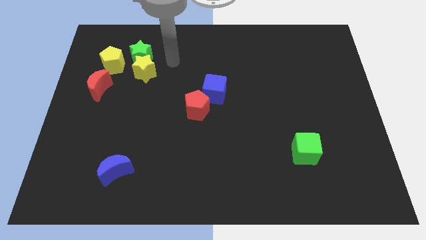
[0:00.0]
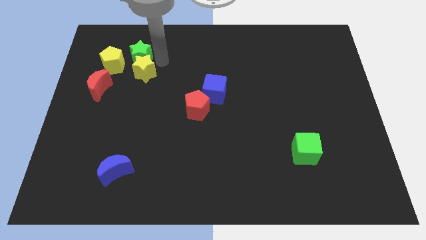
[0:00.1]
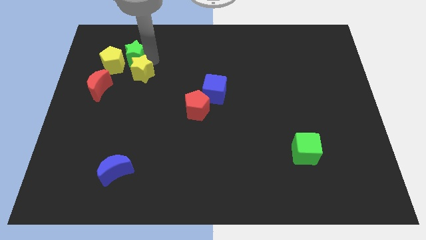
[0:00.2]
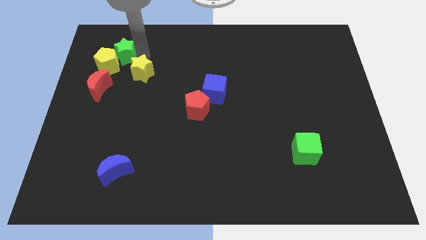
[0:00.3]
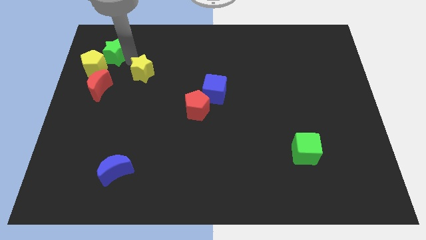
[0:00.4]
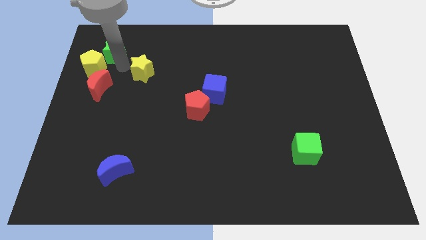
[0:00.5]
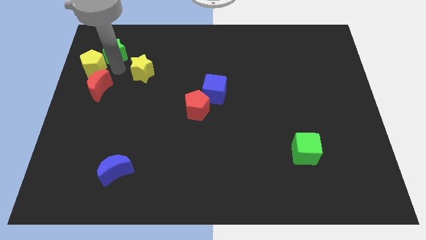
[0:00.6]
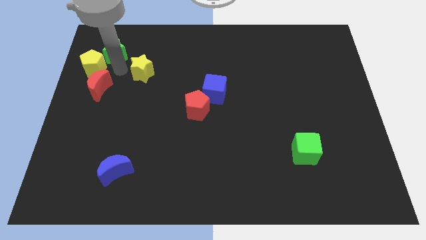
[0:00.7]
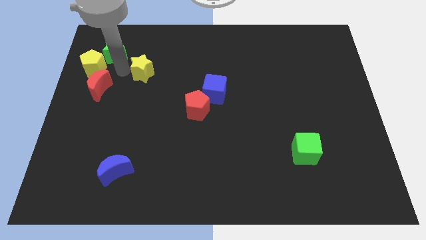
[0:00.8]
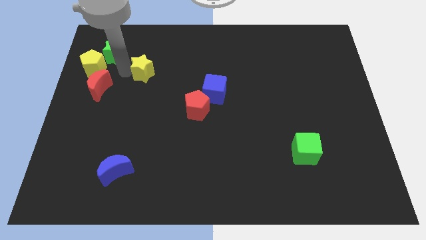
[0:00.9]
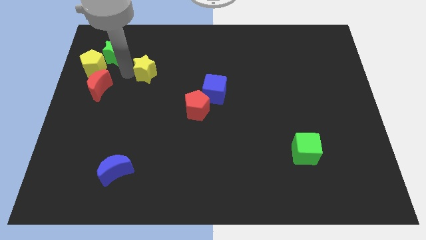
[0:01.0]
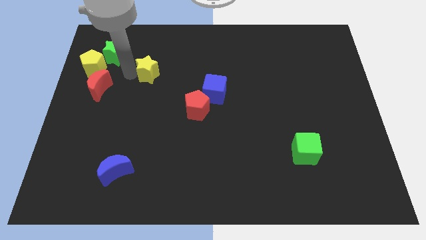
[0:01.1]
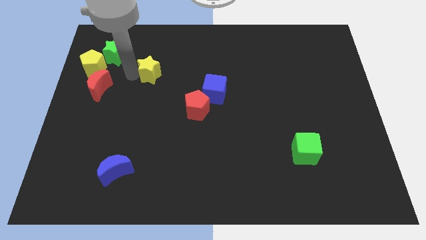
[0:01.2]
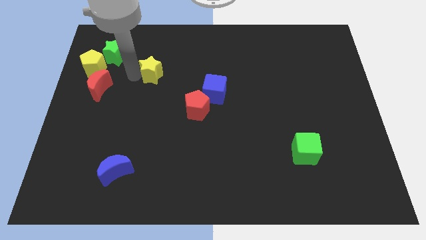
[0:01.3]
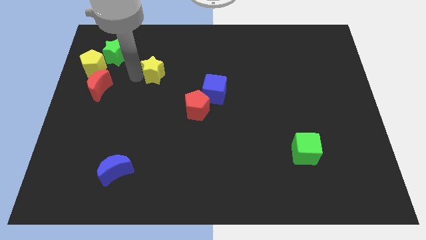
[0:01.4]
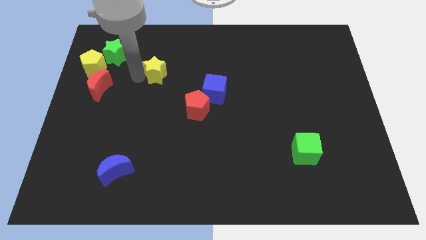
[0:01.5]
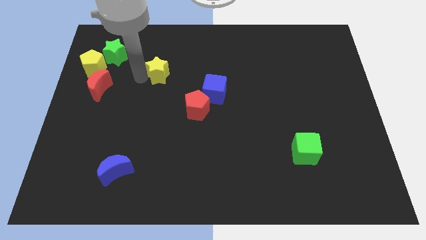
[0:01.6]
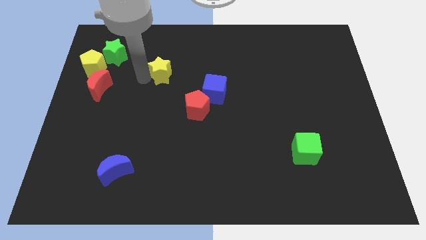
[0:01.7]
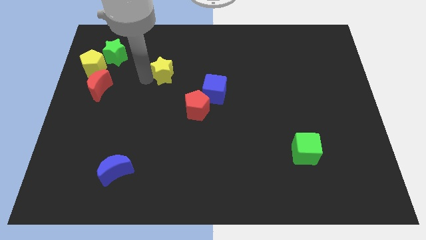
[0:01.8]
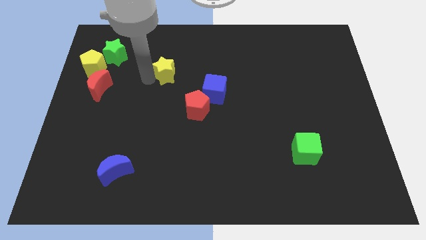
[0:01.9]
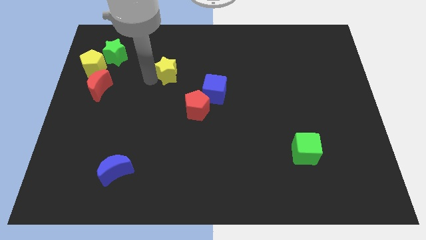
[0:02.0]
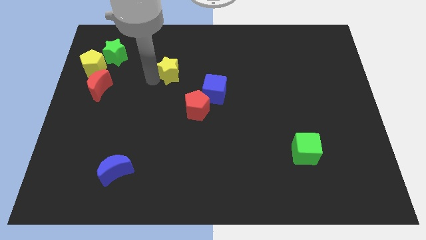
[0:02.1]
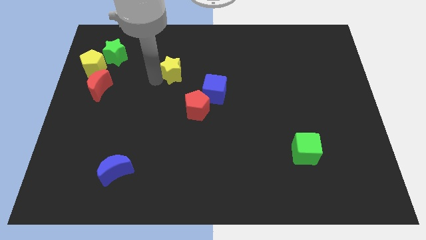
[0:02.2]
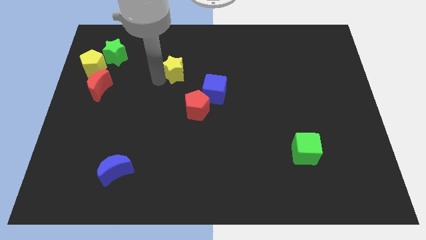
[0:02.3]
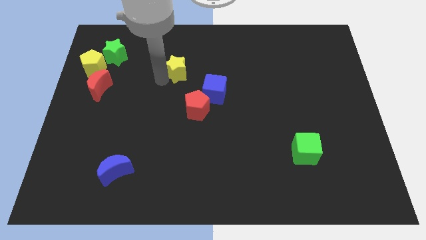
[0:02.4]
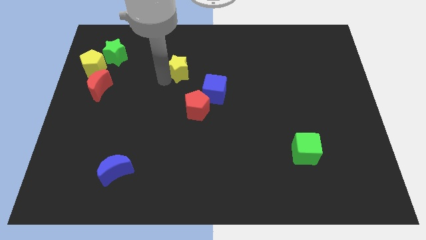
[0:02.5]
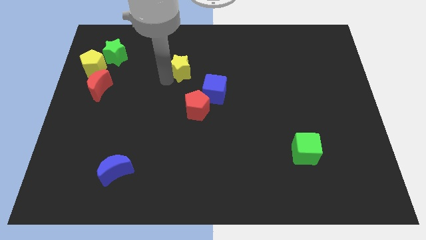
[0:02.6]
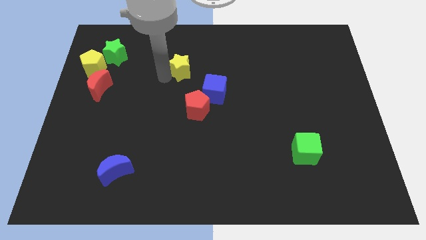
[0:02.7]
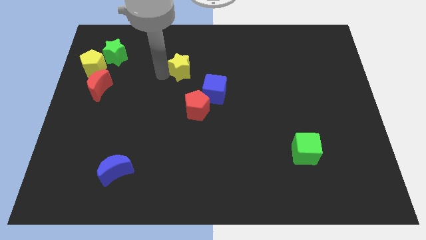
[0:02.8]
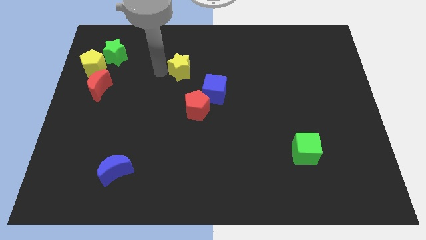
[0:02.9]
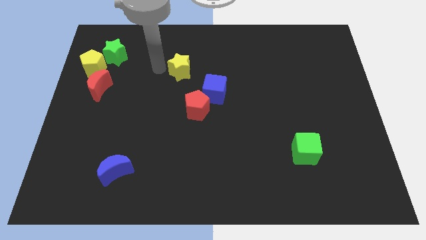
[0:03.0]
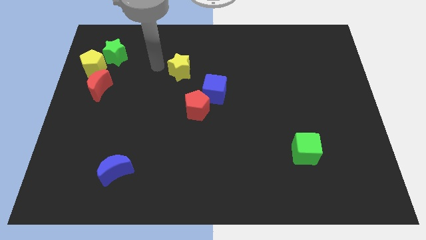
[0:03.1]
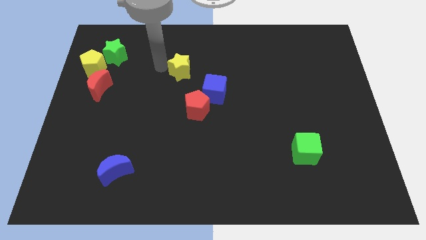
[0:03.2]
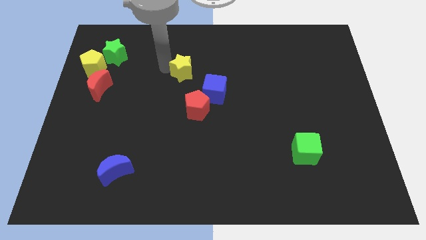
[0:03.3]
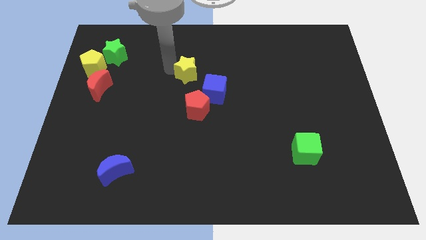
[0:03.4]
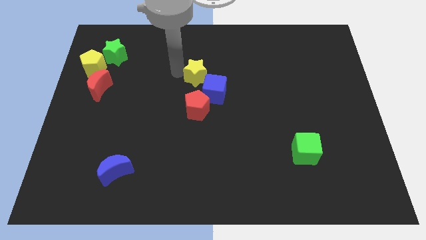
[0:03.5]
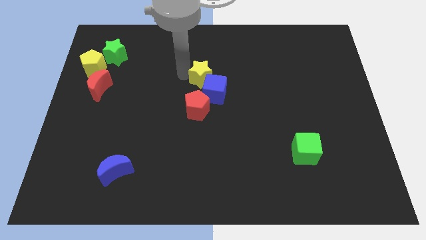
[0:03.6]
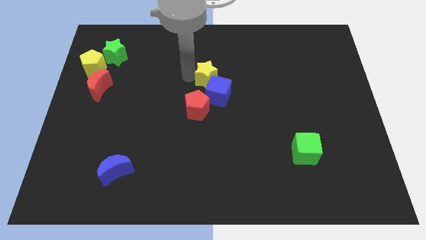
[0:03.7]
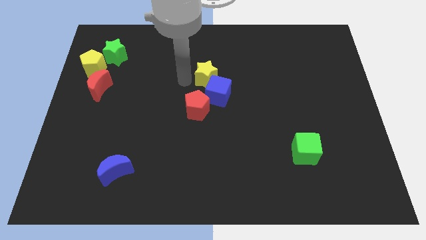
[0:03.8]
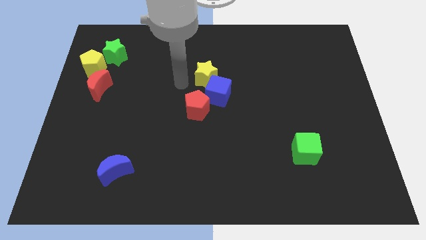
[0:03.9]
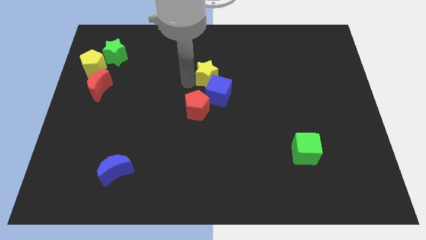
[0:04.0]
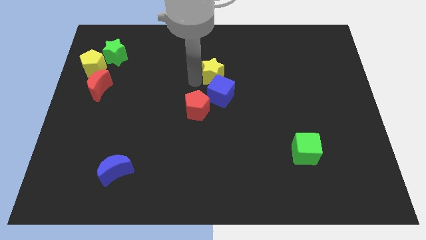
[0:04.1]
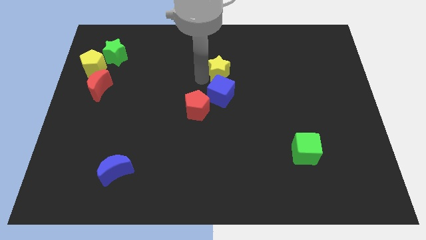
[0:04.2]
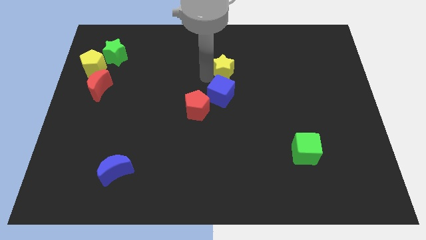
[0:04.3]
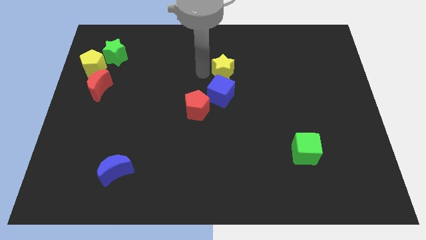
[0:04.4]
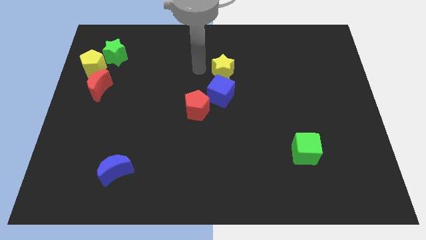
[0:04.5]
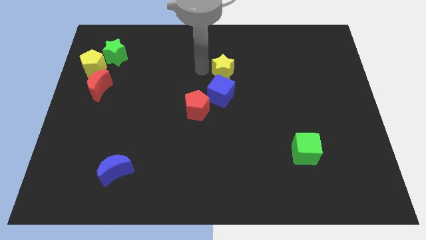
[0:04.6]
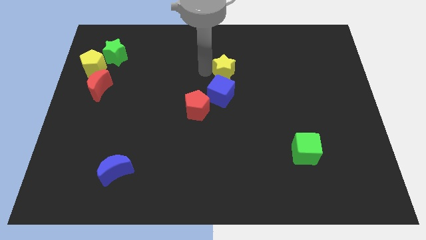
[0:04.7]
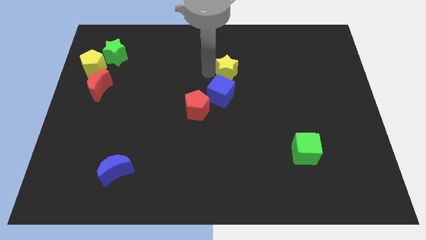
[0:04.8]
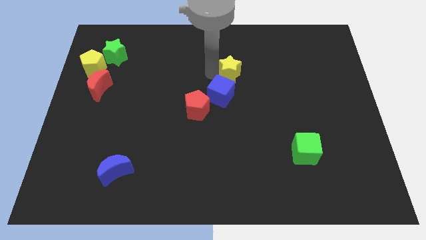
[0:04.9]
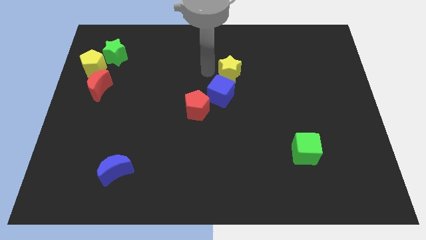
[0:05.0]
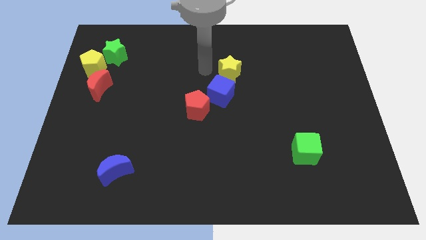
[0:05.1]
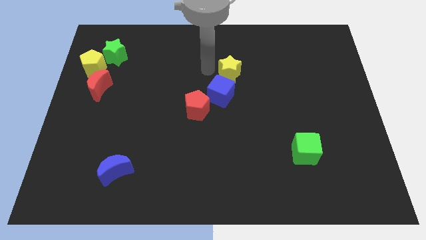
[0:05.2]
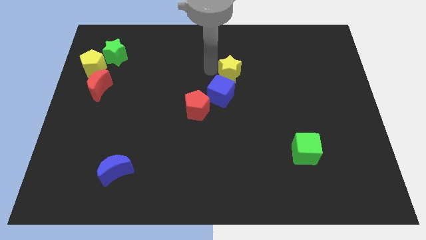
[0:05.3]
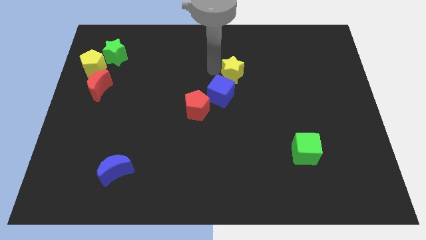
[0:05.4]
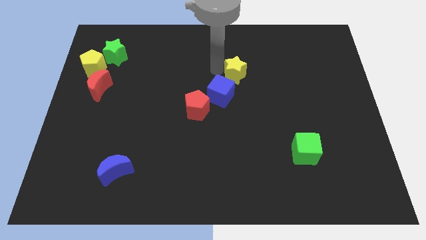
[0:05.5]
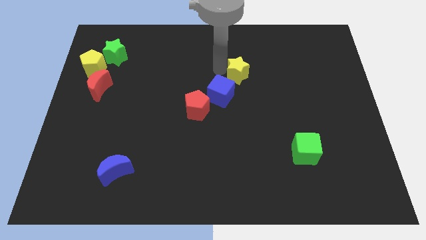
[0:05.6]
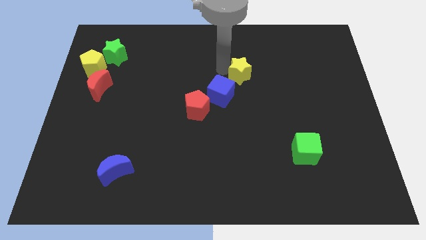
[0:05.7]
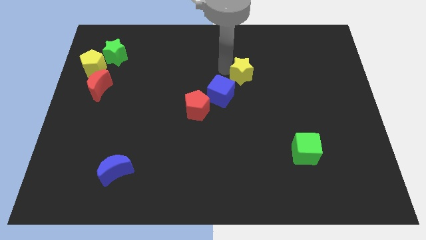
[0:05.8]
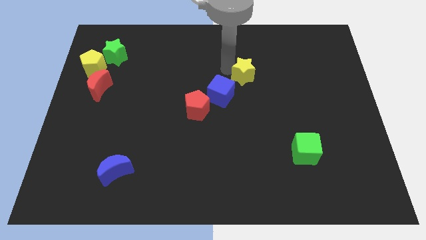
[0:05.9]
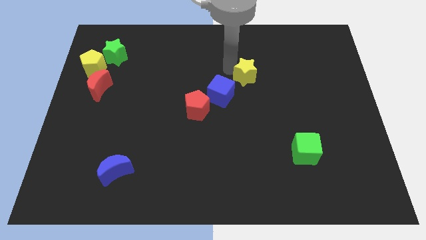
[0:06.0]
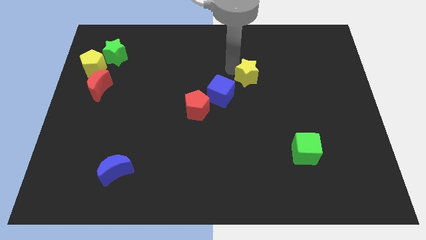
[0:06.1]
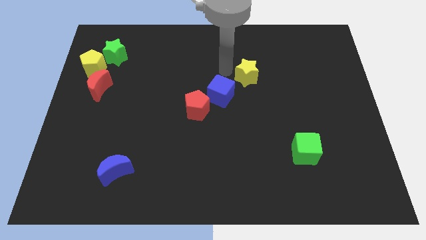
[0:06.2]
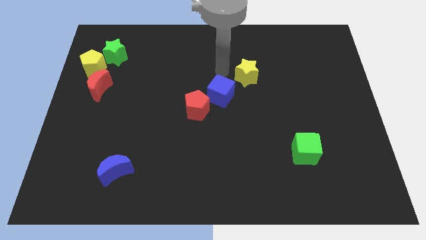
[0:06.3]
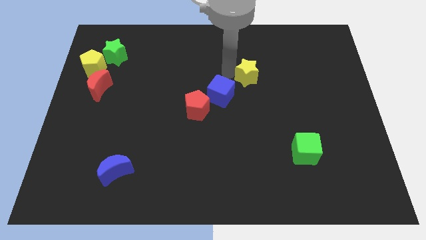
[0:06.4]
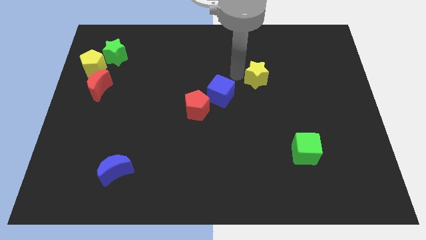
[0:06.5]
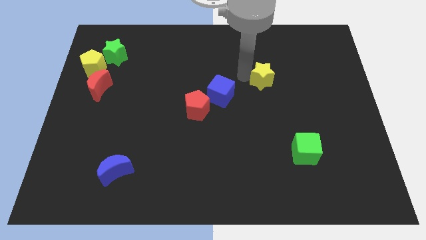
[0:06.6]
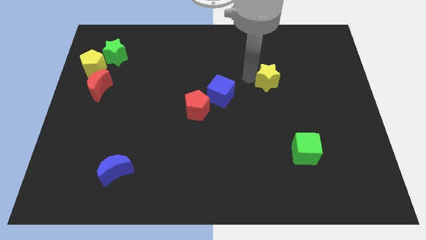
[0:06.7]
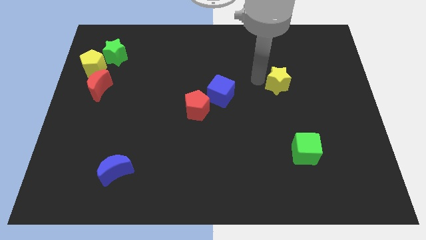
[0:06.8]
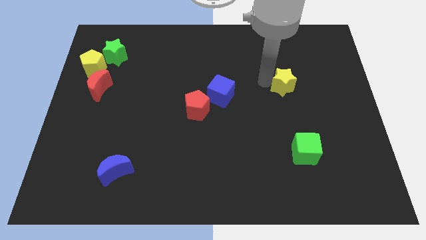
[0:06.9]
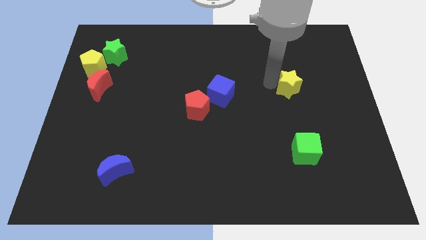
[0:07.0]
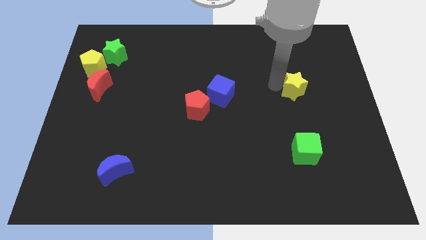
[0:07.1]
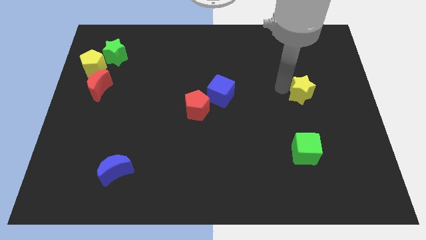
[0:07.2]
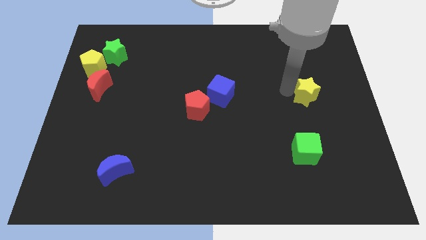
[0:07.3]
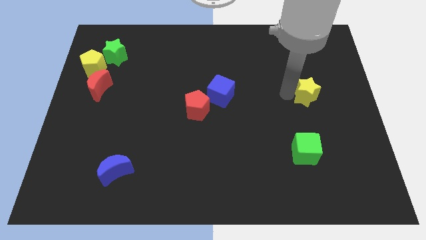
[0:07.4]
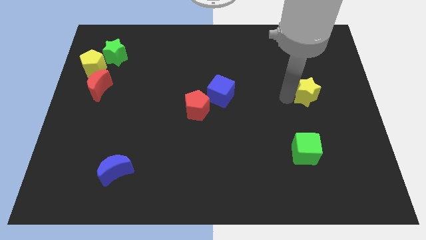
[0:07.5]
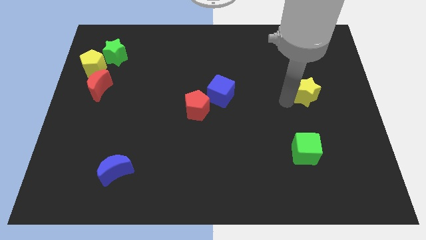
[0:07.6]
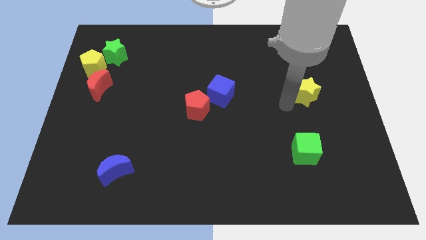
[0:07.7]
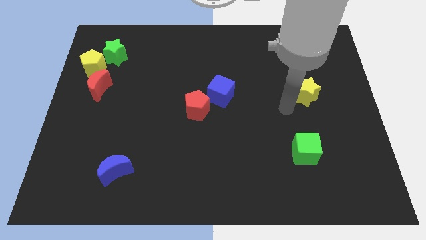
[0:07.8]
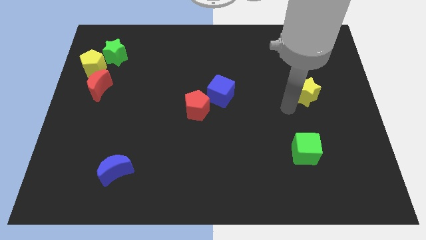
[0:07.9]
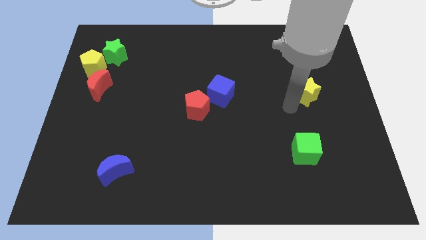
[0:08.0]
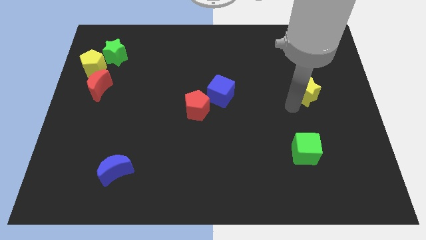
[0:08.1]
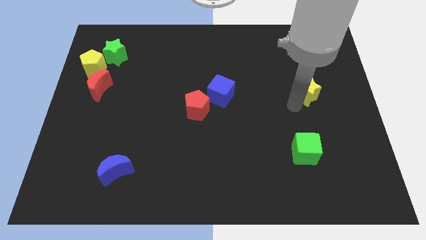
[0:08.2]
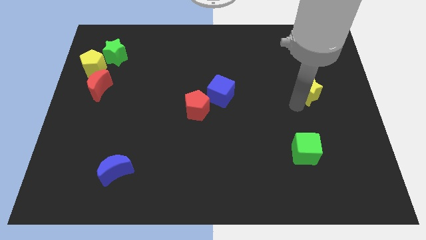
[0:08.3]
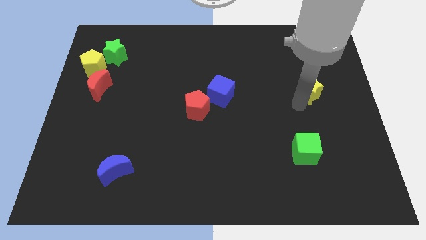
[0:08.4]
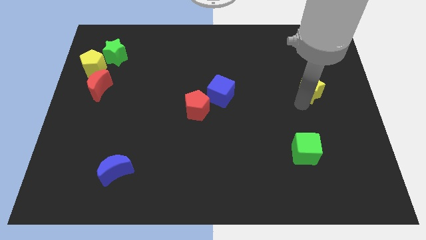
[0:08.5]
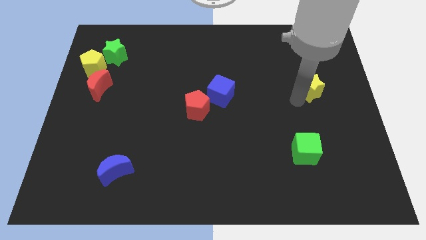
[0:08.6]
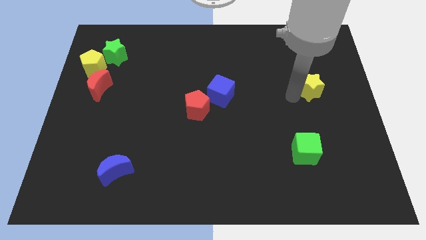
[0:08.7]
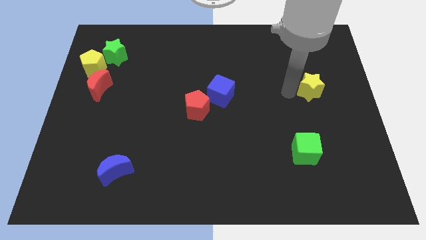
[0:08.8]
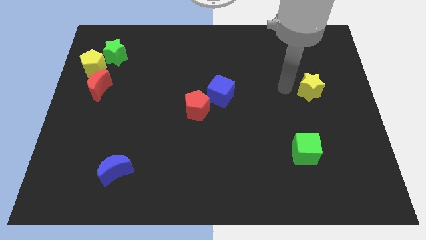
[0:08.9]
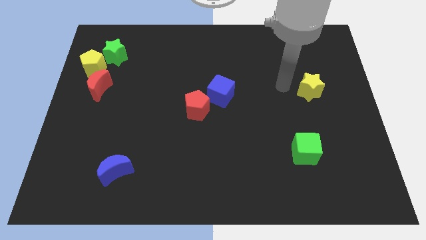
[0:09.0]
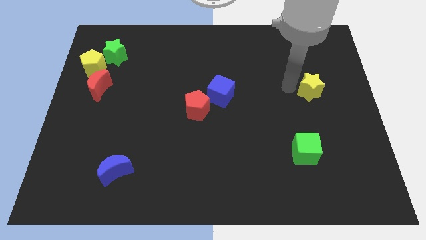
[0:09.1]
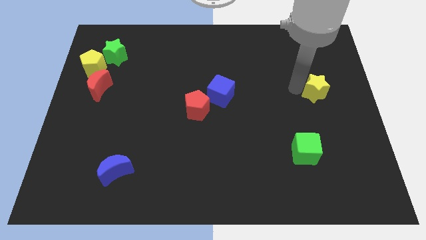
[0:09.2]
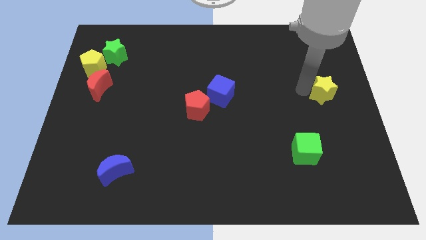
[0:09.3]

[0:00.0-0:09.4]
put the yellow star to the center right
